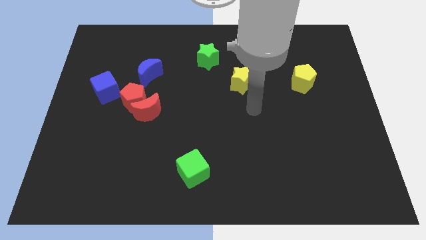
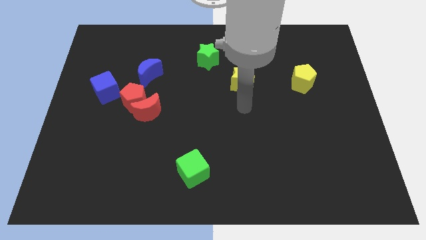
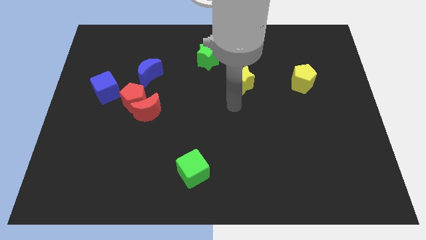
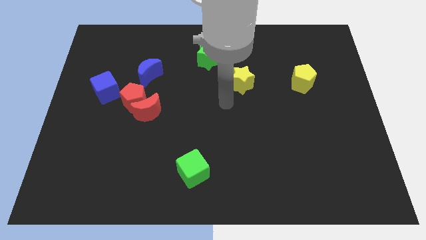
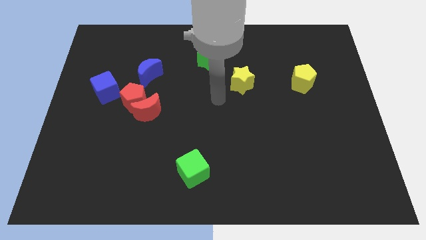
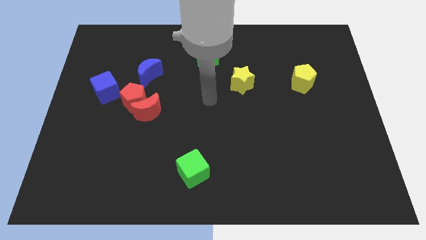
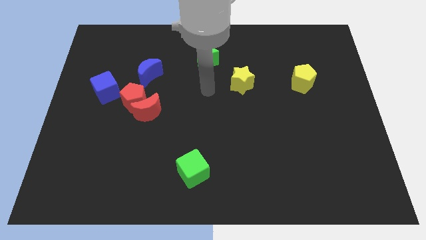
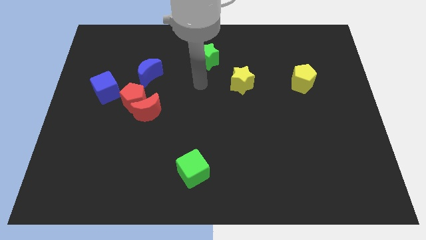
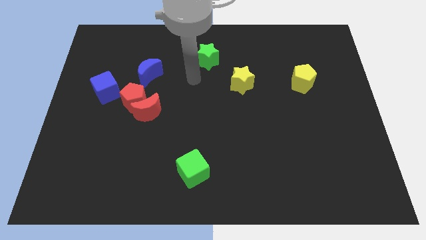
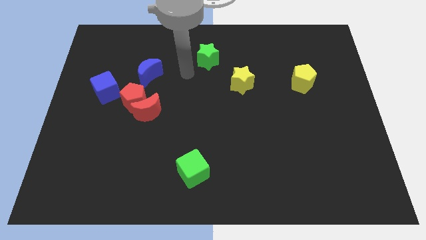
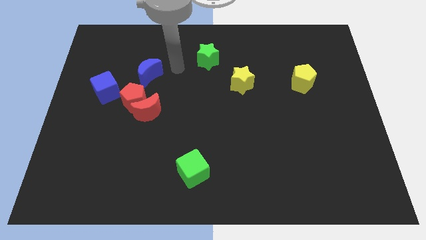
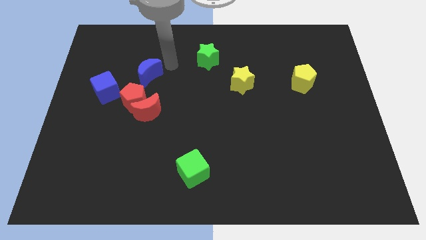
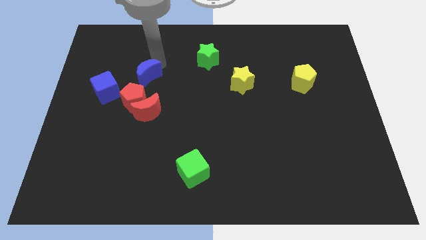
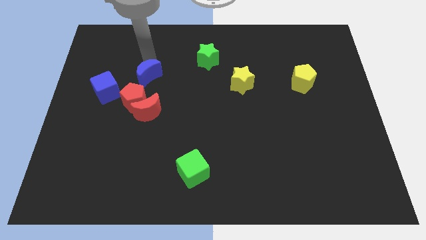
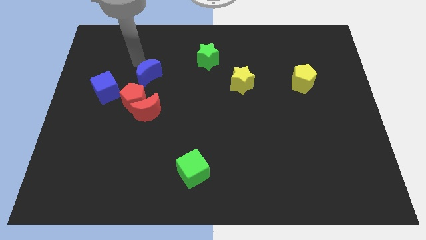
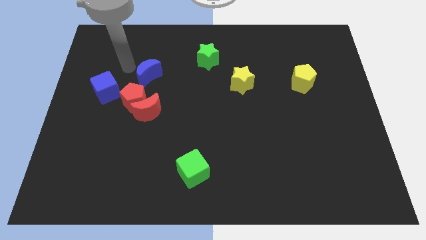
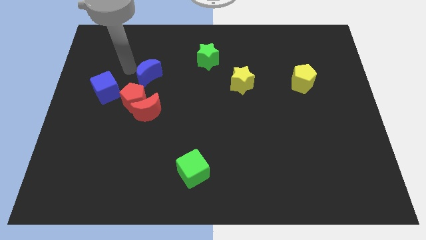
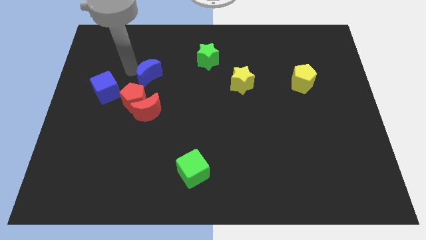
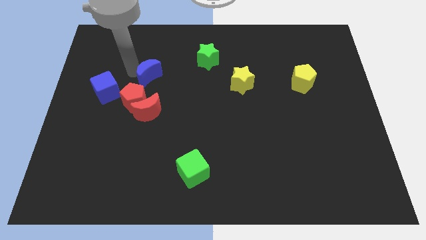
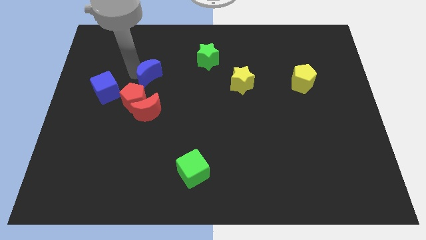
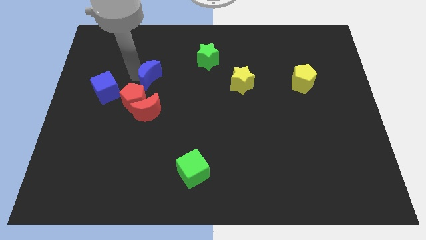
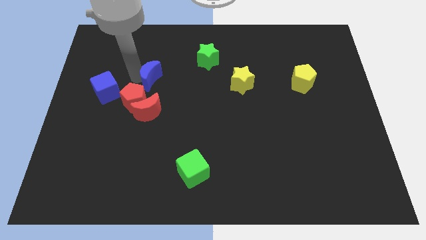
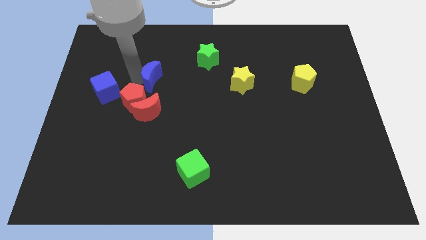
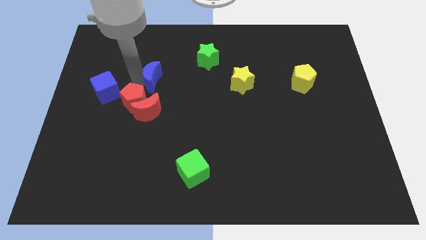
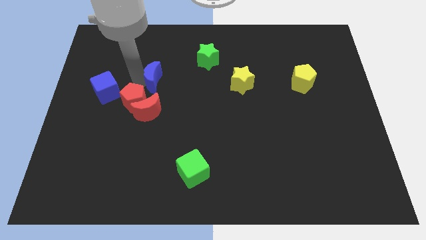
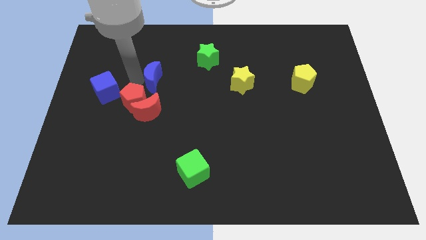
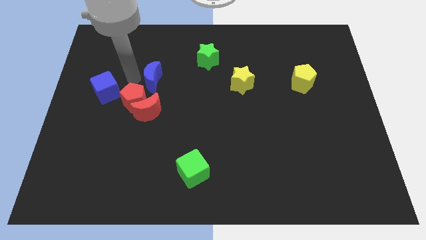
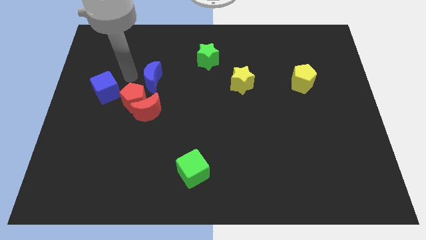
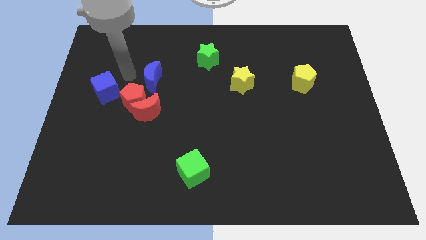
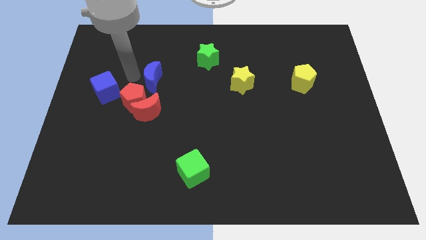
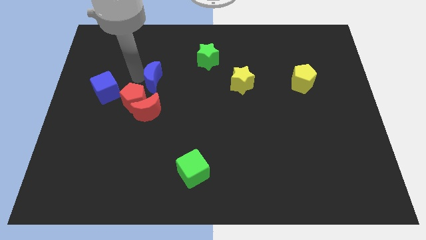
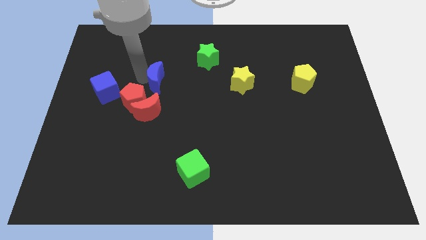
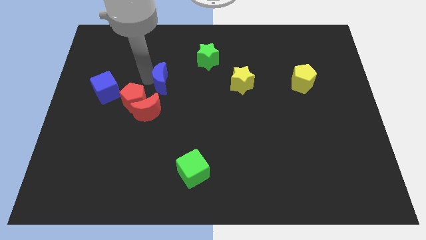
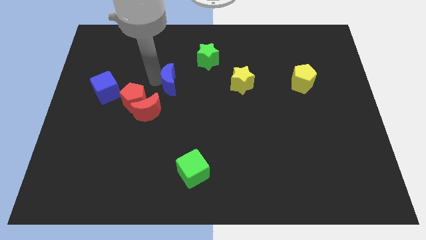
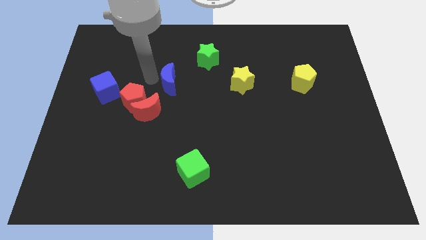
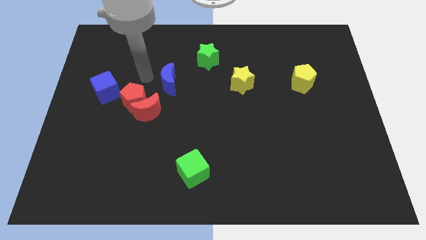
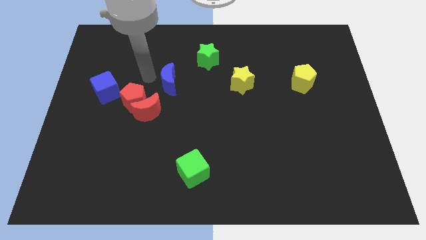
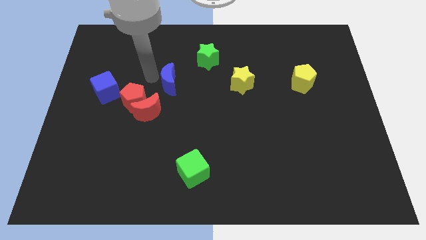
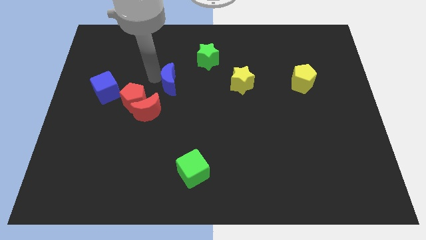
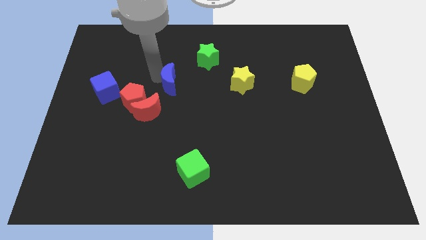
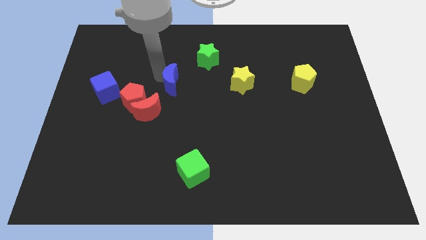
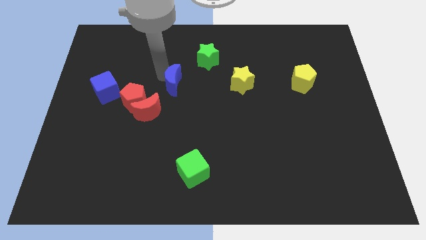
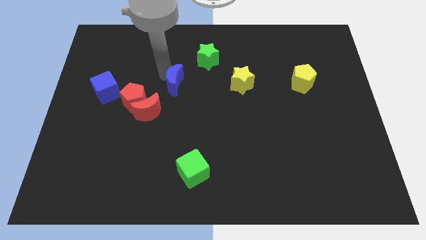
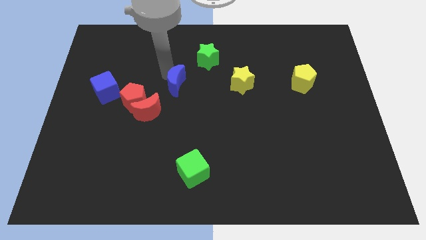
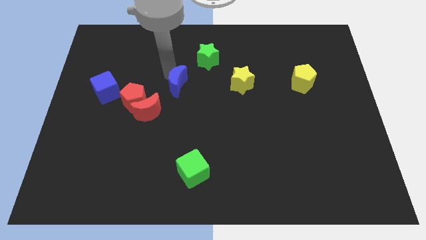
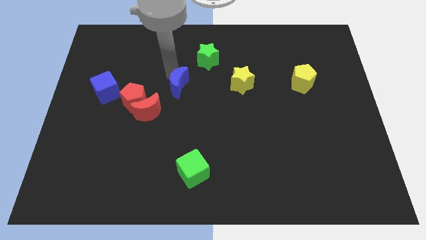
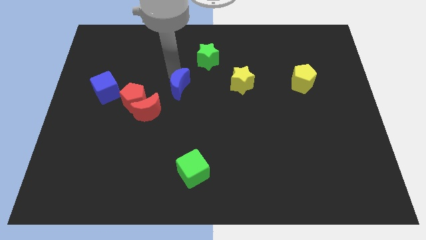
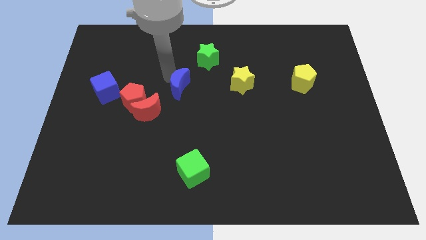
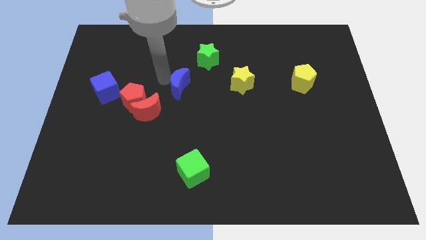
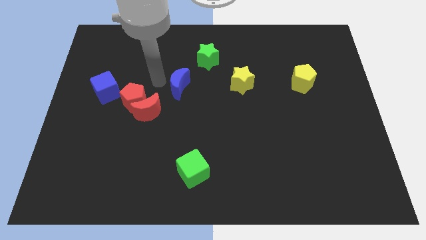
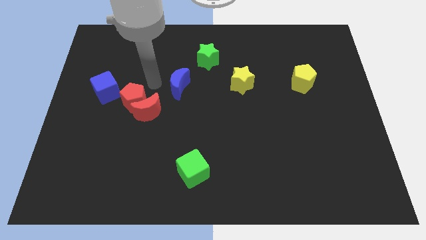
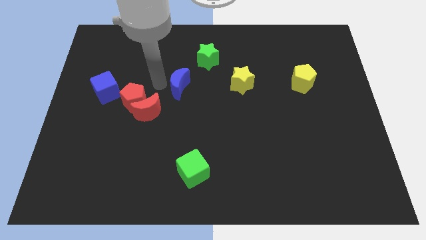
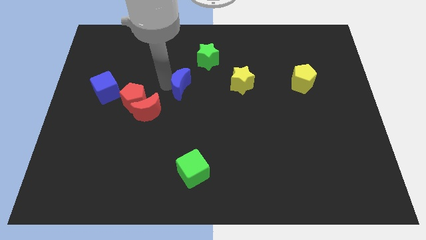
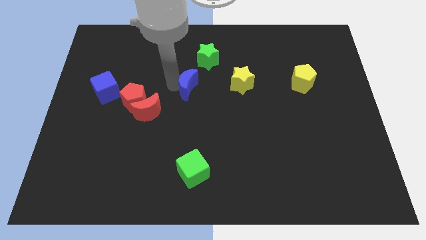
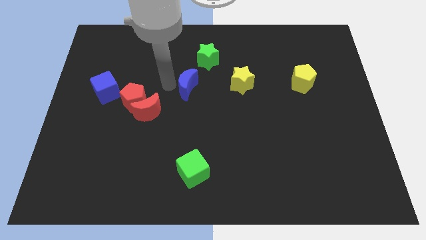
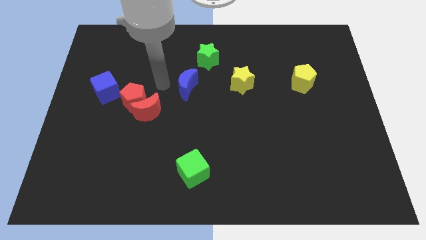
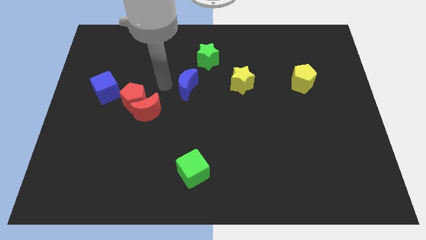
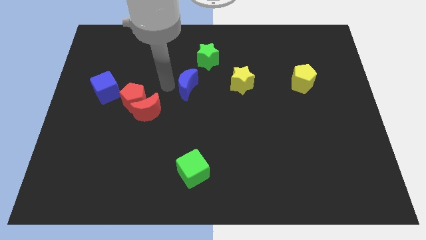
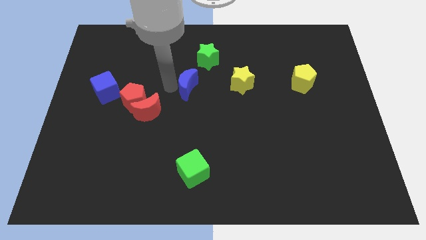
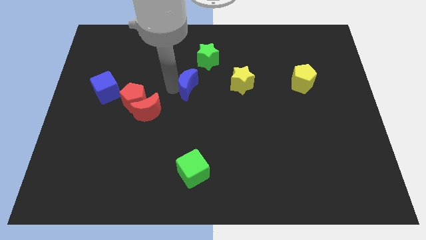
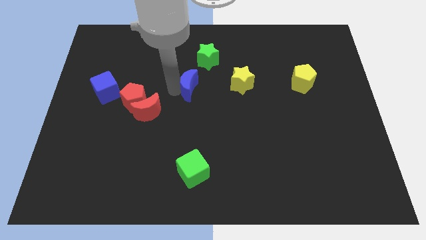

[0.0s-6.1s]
slide the blue moon to the bottom of the green star

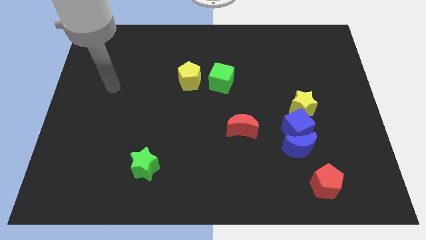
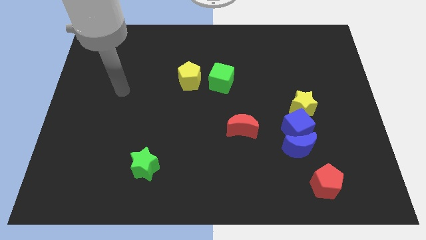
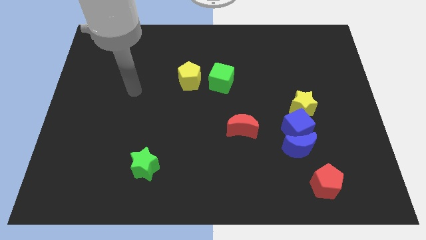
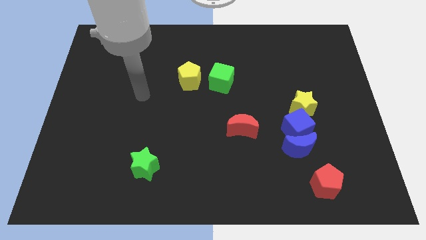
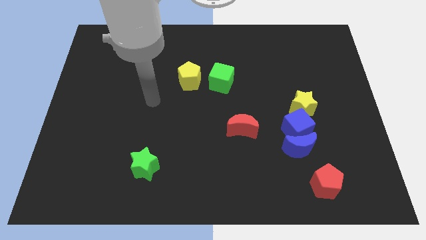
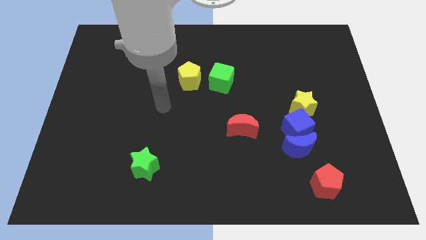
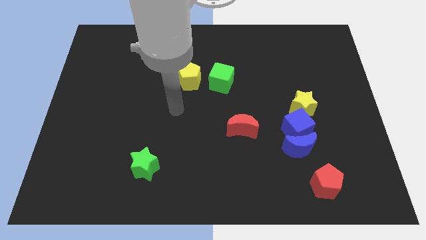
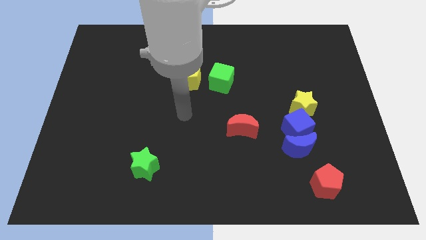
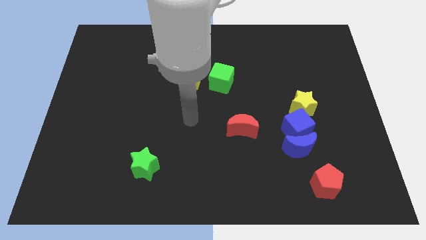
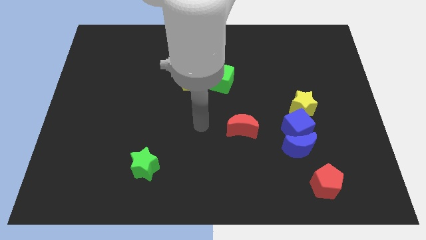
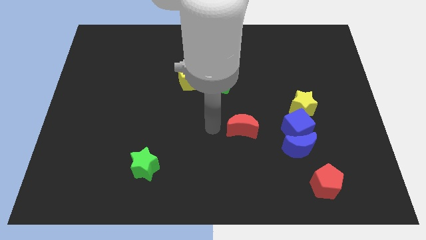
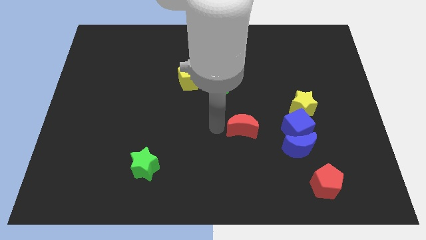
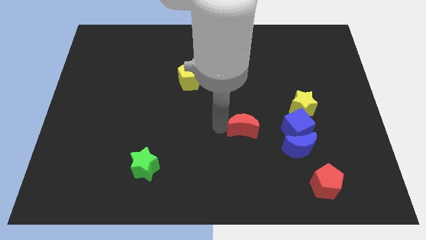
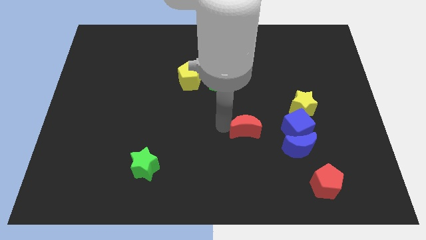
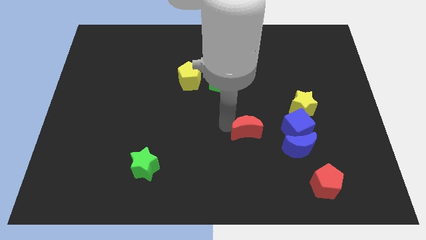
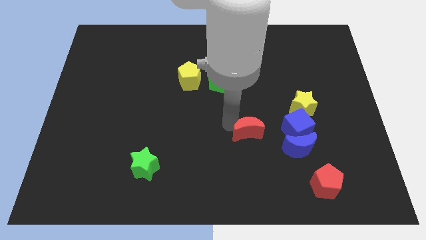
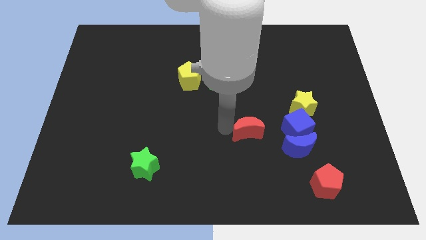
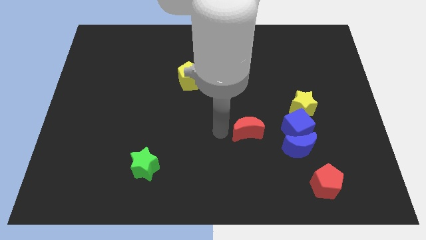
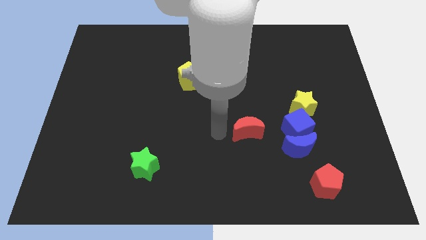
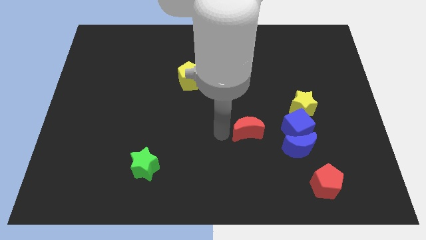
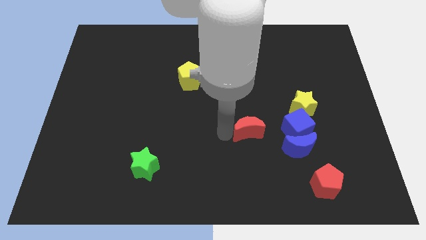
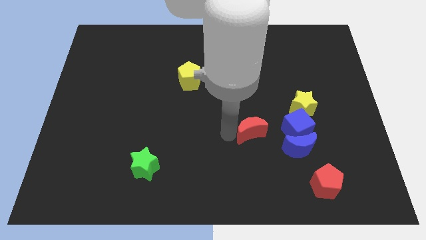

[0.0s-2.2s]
push the red moon to the top left side of the blue moon
